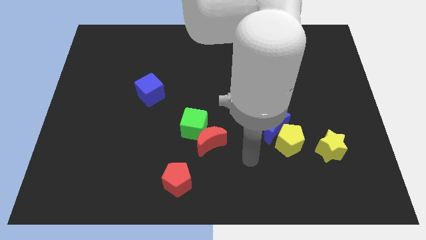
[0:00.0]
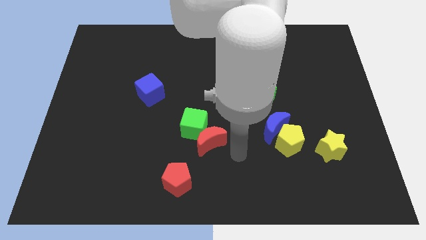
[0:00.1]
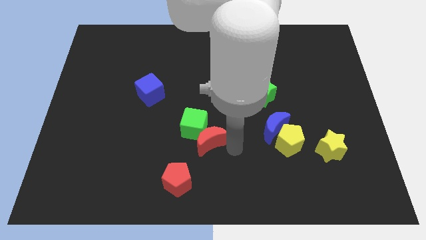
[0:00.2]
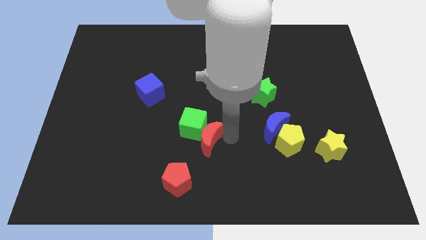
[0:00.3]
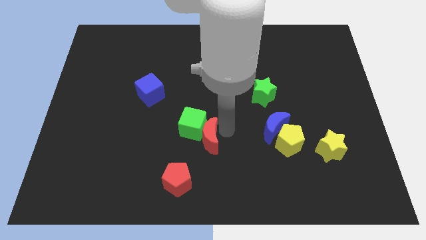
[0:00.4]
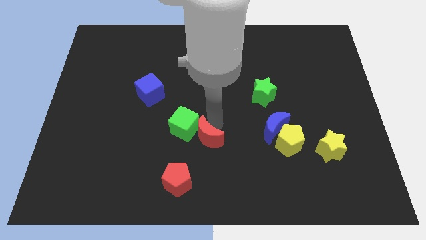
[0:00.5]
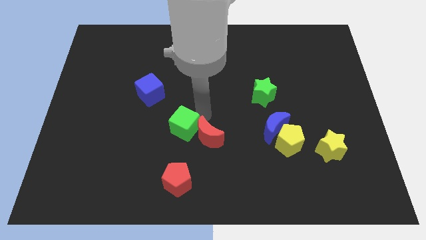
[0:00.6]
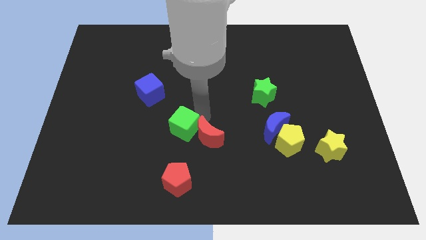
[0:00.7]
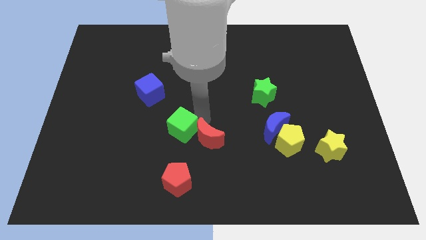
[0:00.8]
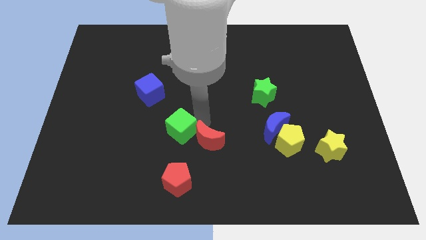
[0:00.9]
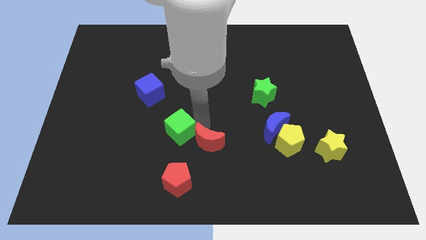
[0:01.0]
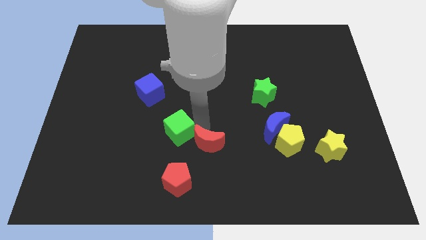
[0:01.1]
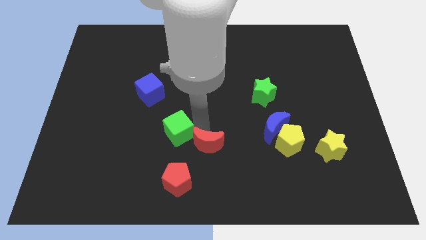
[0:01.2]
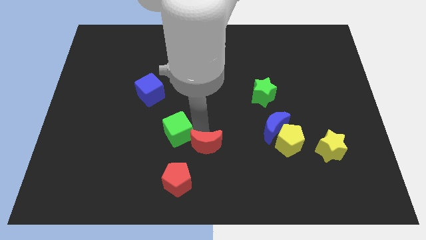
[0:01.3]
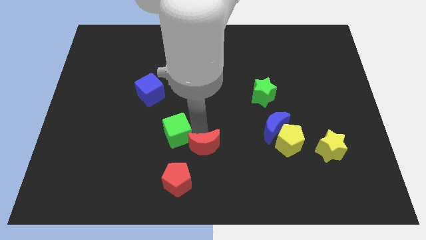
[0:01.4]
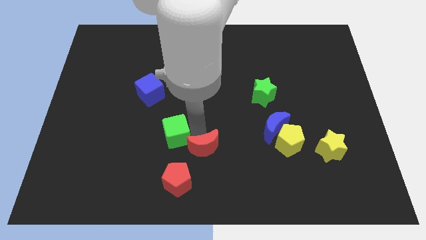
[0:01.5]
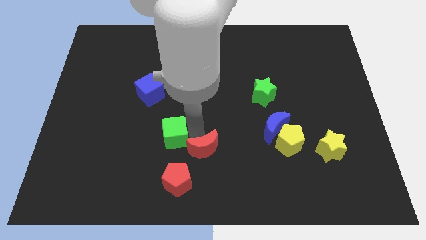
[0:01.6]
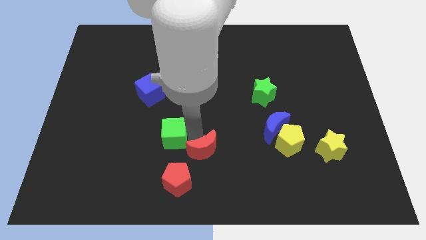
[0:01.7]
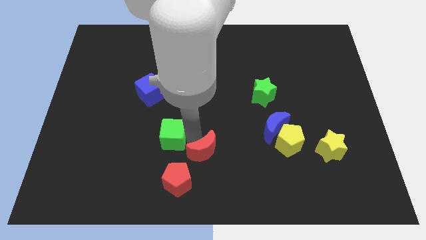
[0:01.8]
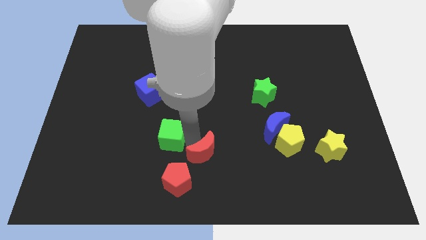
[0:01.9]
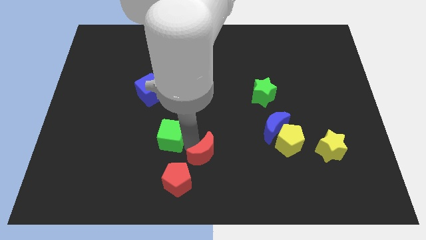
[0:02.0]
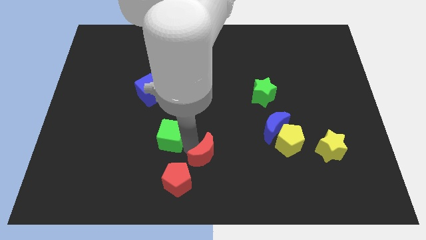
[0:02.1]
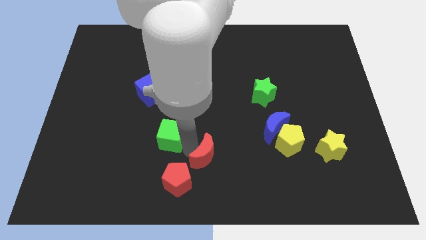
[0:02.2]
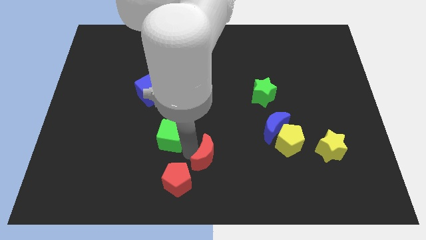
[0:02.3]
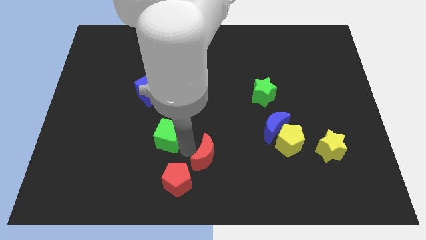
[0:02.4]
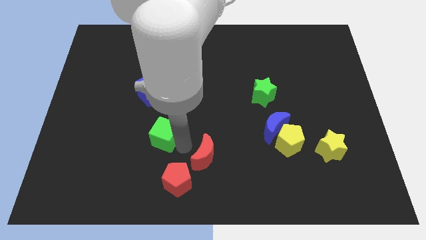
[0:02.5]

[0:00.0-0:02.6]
separate the red moon from the green cube

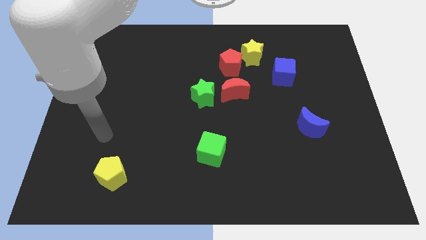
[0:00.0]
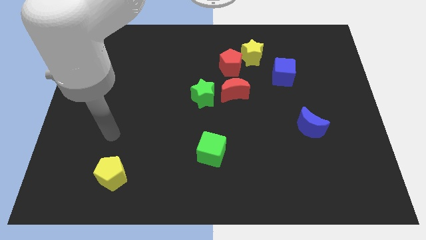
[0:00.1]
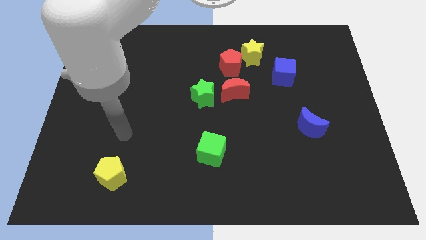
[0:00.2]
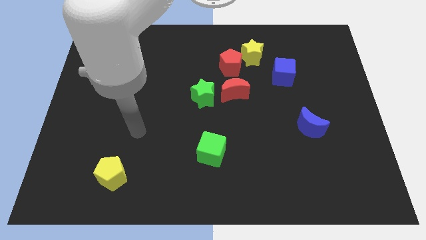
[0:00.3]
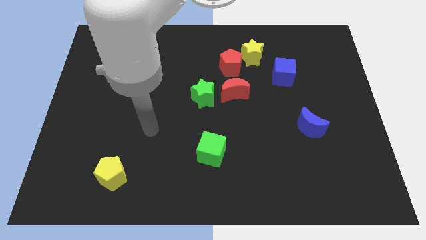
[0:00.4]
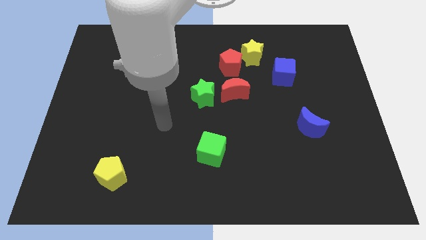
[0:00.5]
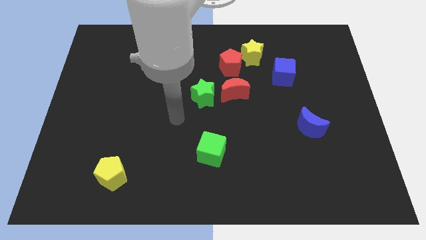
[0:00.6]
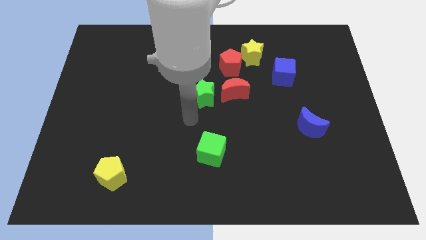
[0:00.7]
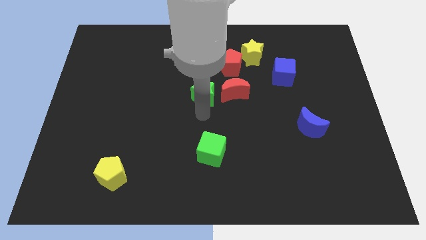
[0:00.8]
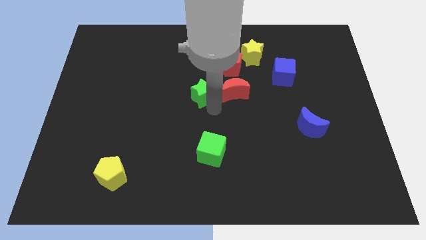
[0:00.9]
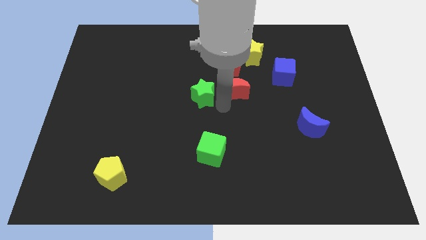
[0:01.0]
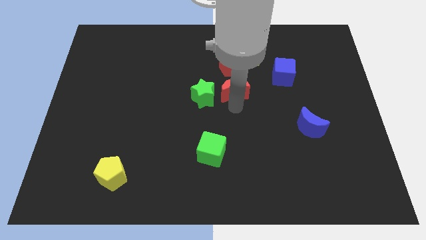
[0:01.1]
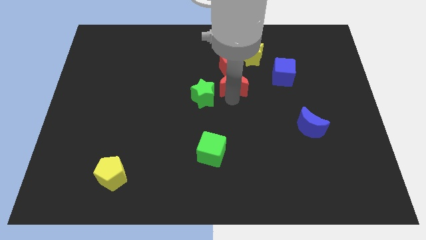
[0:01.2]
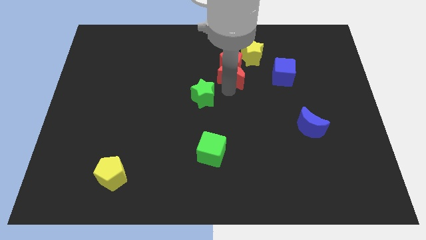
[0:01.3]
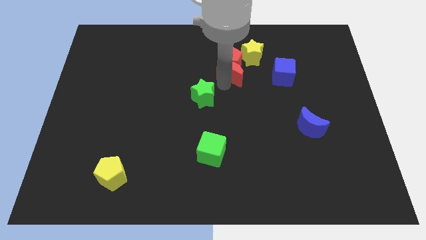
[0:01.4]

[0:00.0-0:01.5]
move the green star away from the red moon

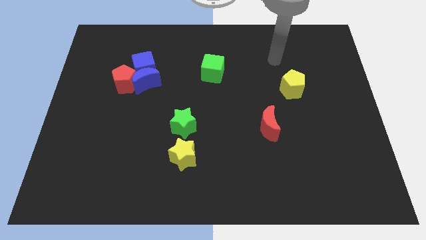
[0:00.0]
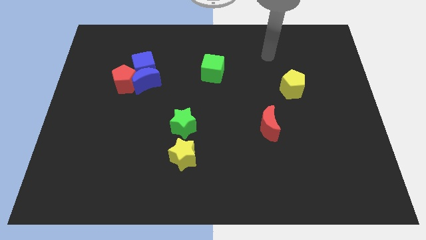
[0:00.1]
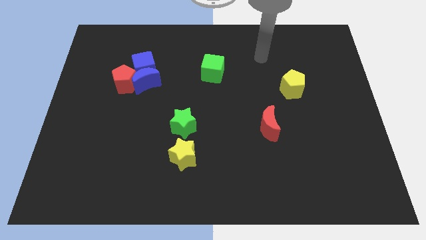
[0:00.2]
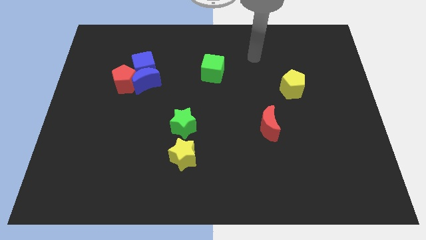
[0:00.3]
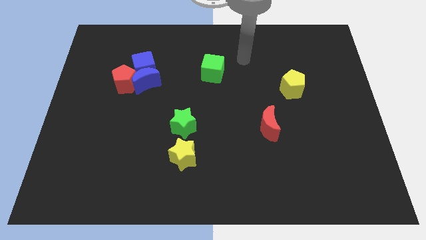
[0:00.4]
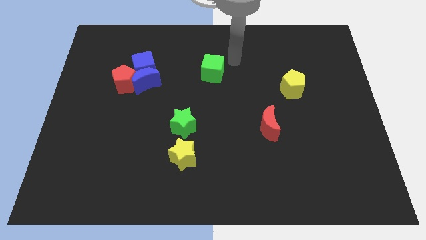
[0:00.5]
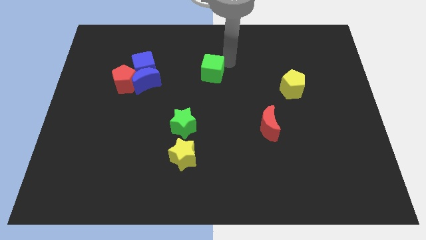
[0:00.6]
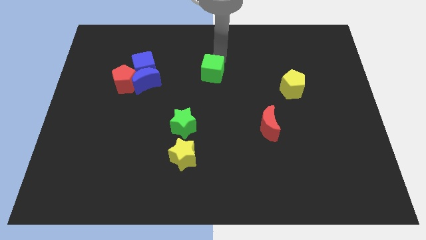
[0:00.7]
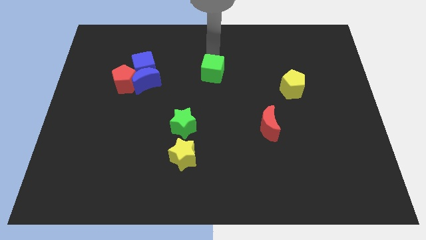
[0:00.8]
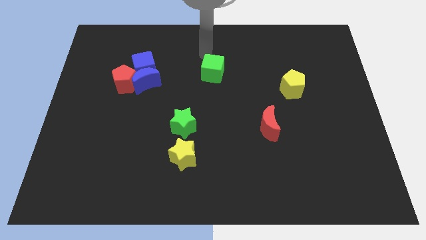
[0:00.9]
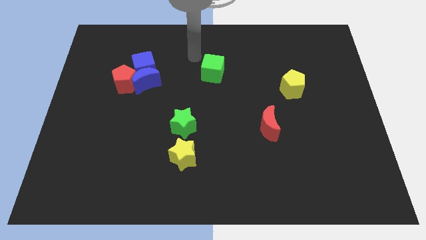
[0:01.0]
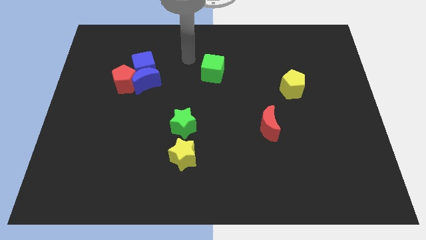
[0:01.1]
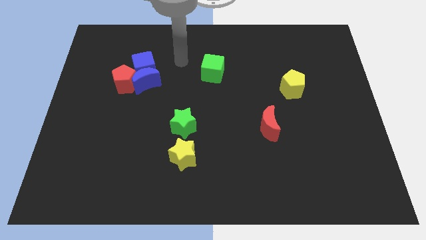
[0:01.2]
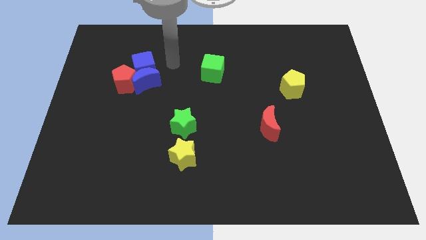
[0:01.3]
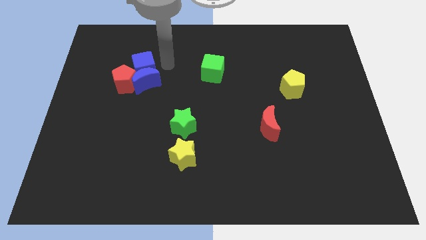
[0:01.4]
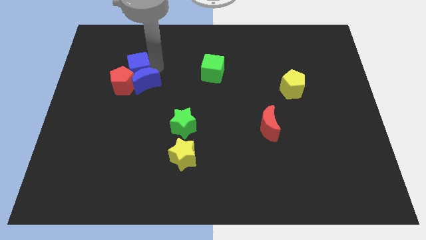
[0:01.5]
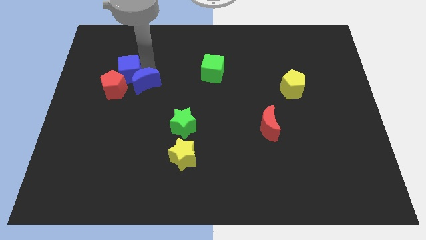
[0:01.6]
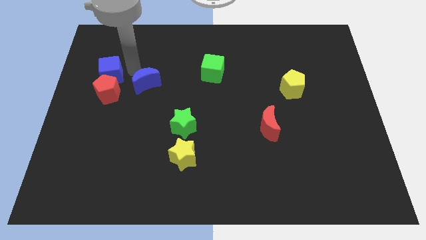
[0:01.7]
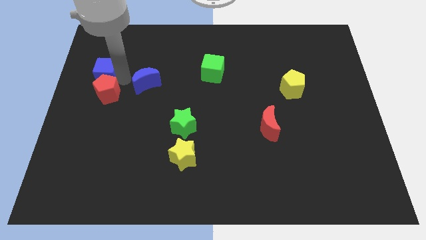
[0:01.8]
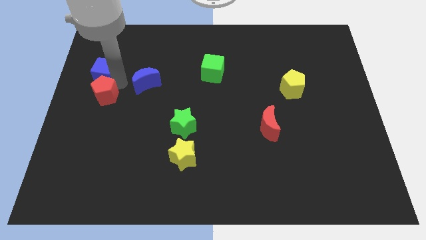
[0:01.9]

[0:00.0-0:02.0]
move the blue moon away from the blue cube and red pentagon

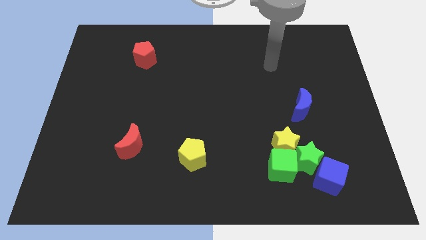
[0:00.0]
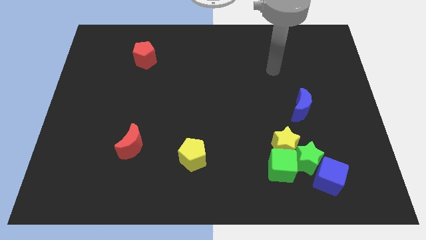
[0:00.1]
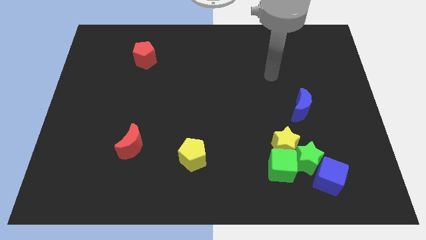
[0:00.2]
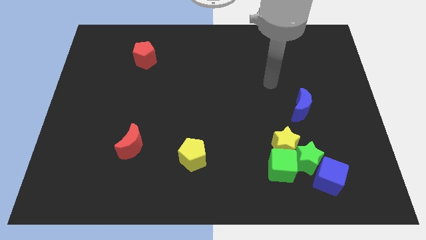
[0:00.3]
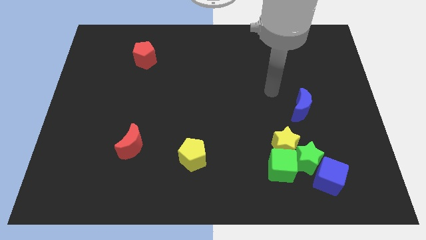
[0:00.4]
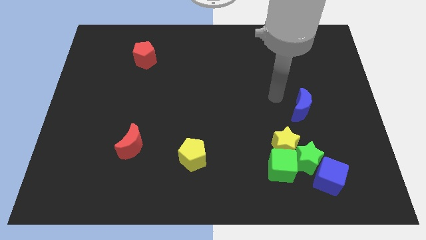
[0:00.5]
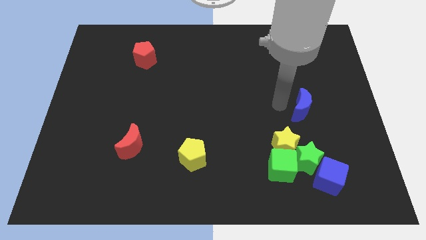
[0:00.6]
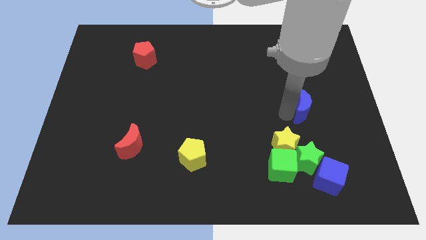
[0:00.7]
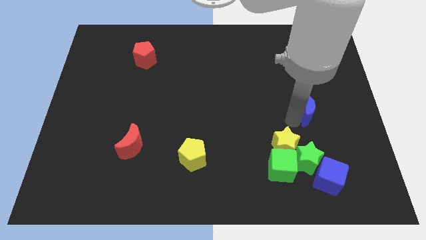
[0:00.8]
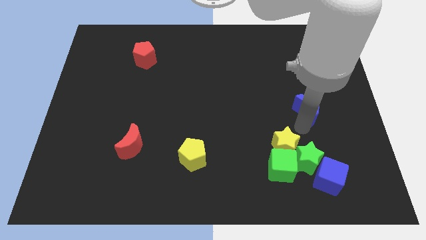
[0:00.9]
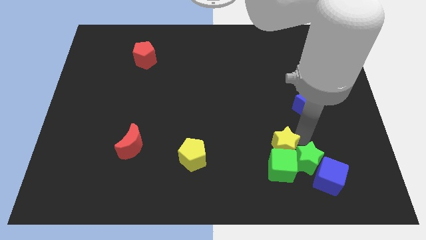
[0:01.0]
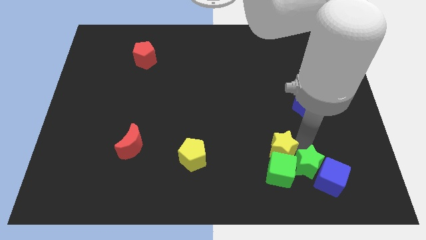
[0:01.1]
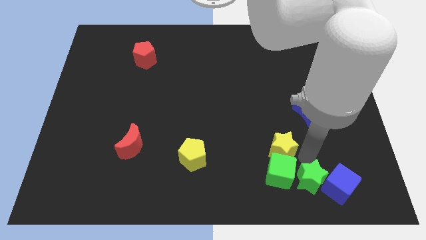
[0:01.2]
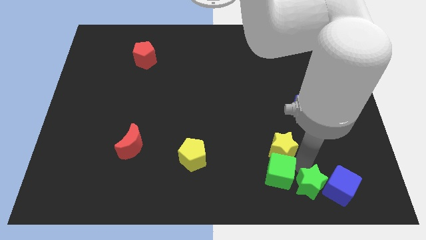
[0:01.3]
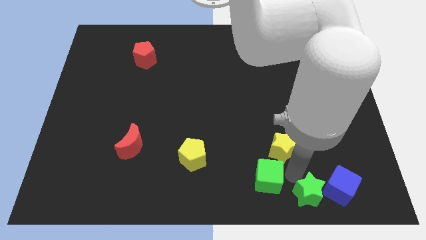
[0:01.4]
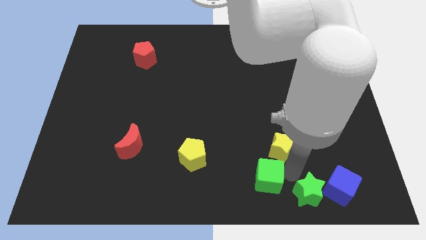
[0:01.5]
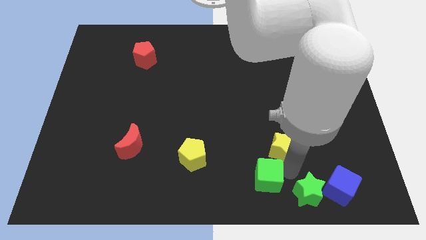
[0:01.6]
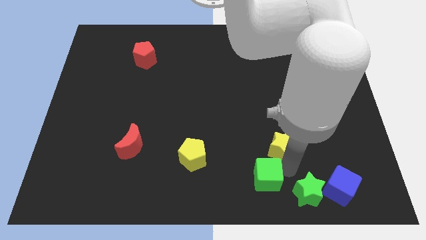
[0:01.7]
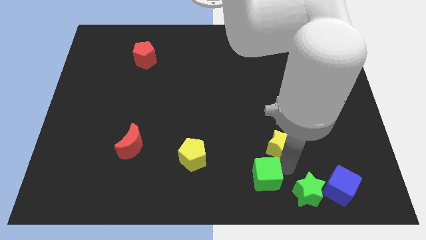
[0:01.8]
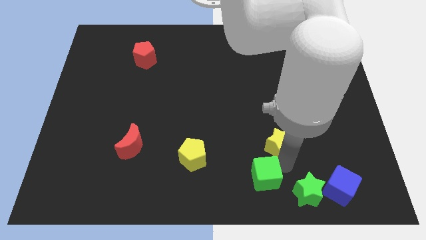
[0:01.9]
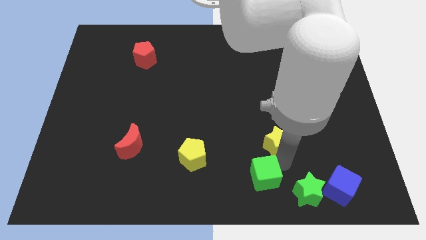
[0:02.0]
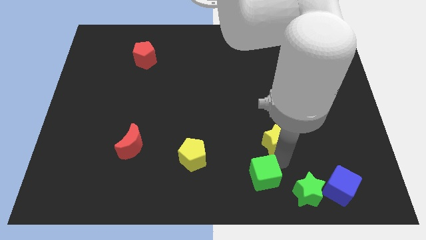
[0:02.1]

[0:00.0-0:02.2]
move the yellow star away from the green cube and green star

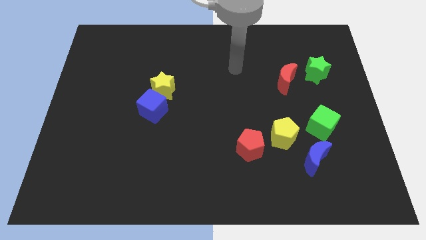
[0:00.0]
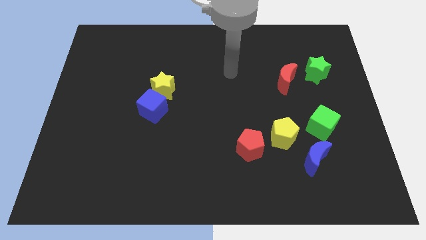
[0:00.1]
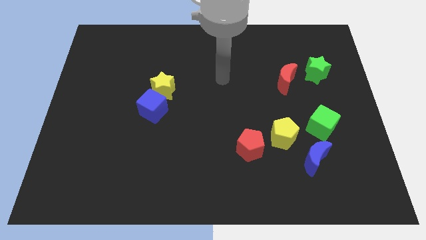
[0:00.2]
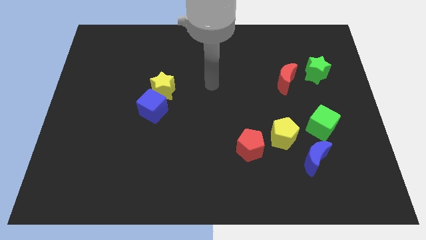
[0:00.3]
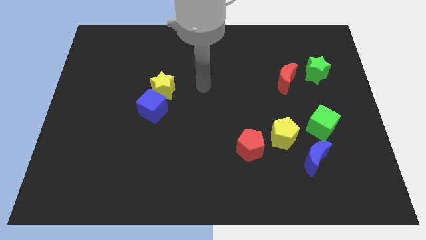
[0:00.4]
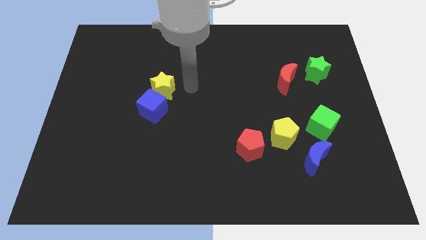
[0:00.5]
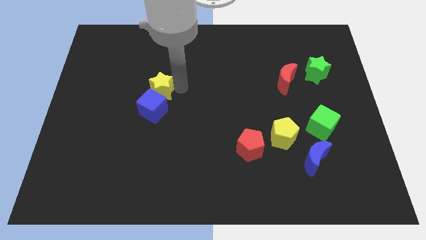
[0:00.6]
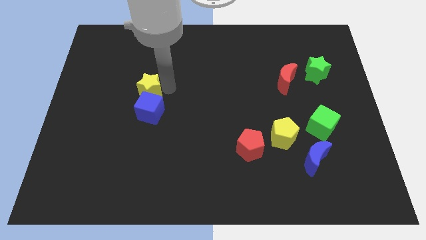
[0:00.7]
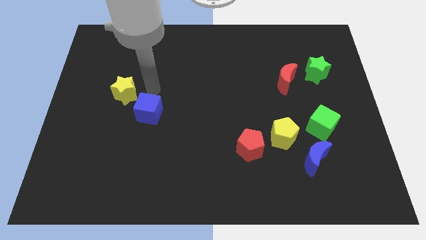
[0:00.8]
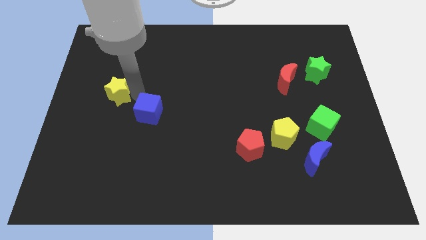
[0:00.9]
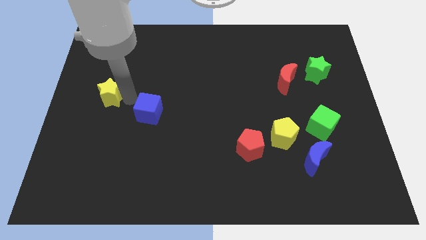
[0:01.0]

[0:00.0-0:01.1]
separate the blue cube from the yellow star
